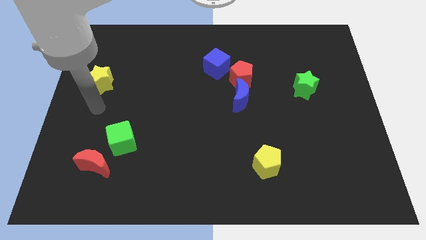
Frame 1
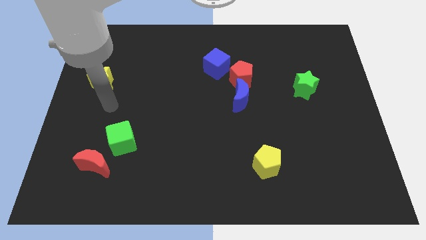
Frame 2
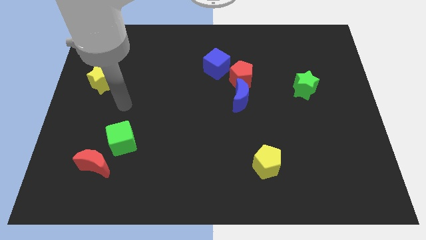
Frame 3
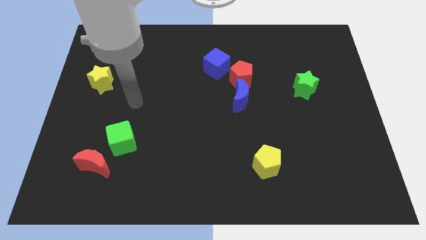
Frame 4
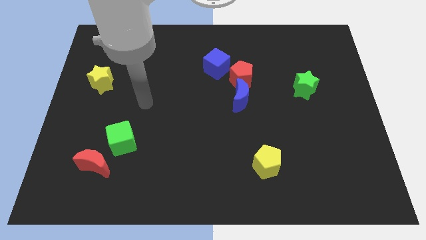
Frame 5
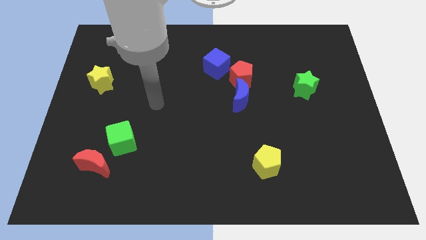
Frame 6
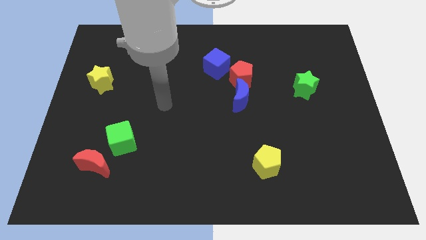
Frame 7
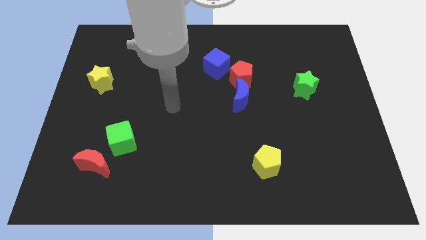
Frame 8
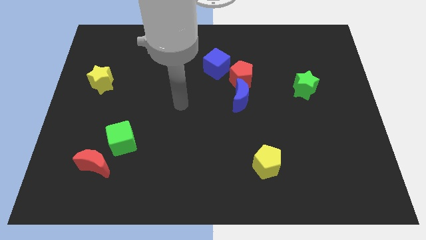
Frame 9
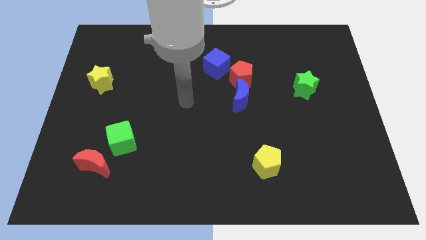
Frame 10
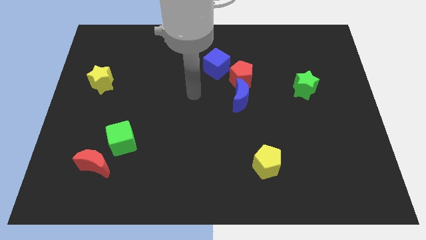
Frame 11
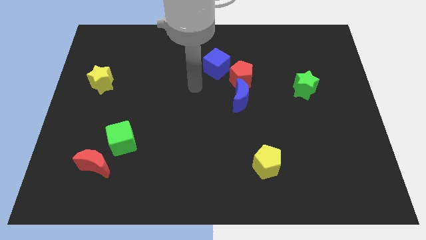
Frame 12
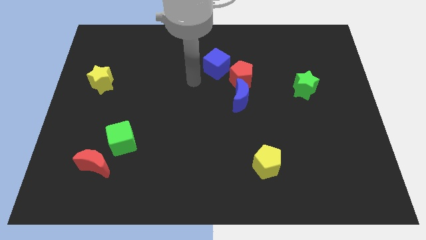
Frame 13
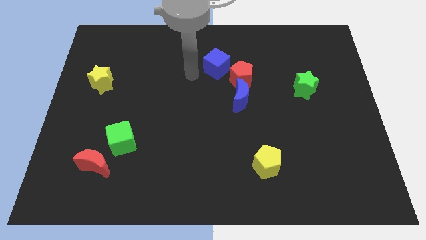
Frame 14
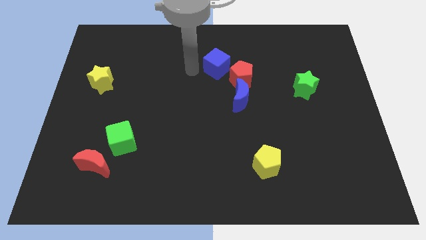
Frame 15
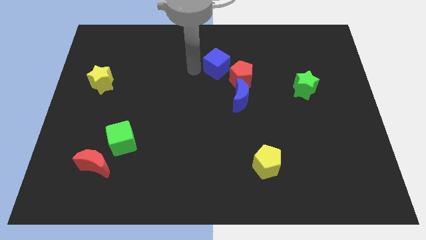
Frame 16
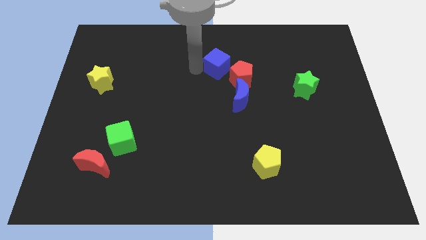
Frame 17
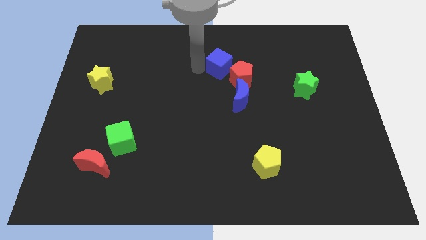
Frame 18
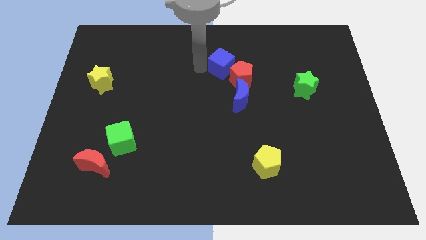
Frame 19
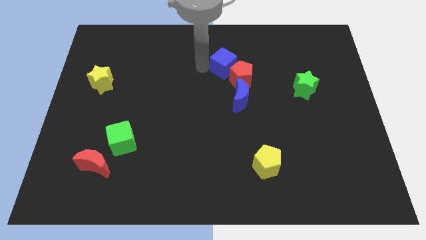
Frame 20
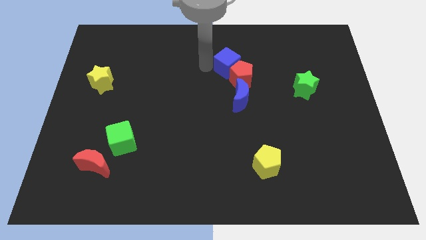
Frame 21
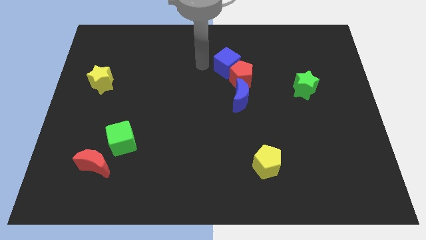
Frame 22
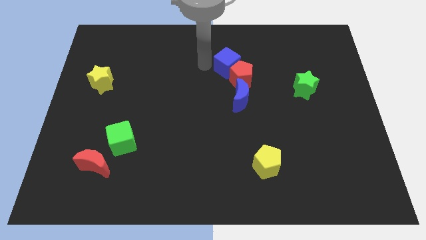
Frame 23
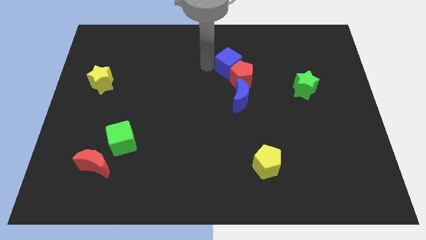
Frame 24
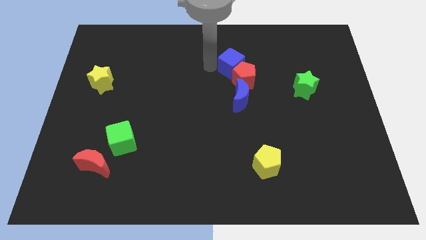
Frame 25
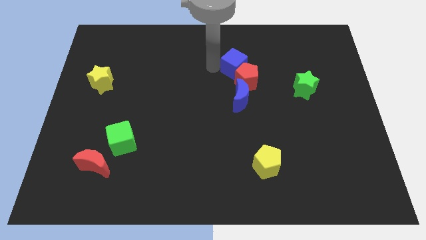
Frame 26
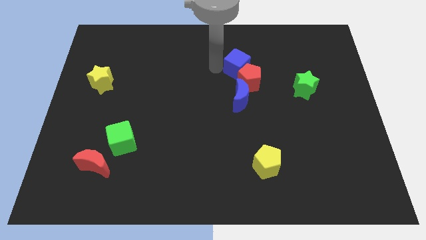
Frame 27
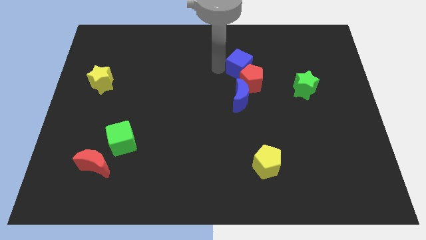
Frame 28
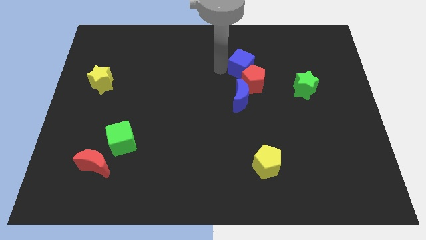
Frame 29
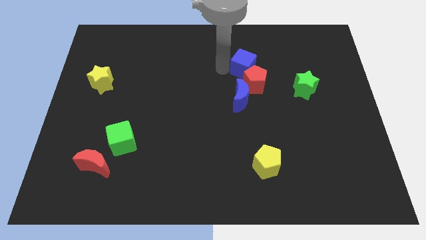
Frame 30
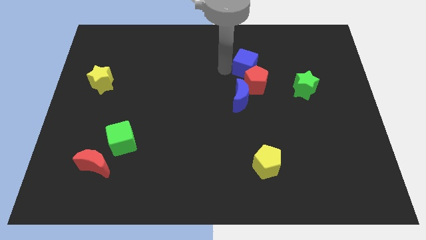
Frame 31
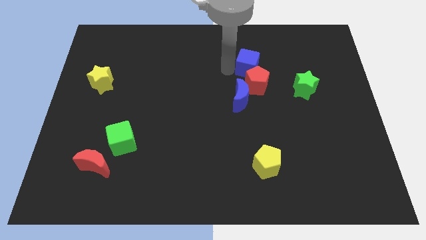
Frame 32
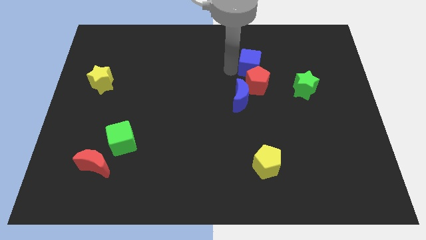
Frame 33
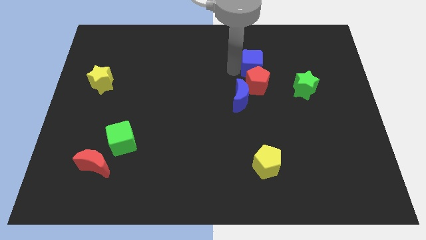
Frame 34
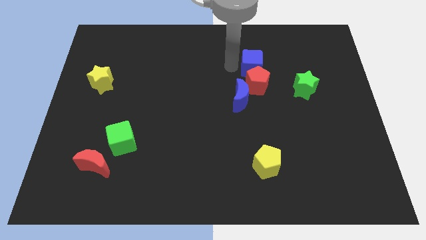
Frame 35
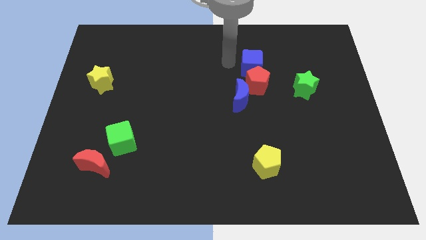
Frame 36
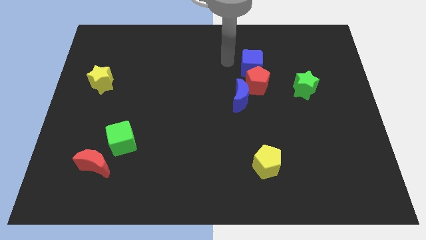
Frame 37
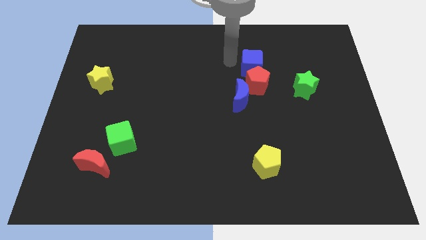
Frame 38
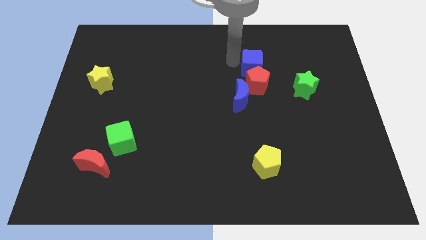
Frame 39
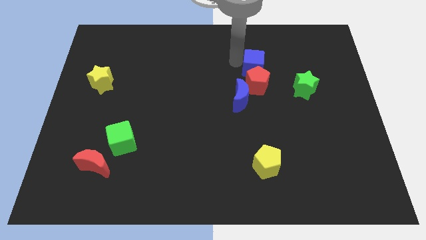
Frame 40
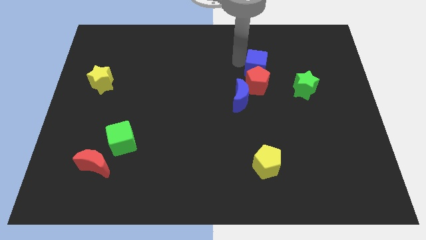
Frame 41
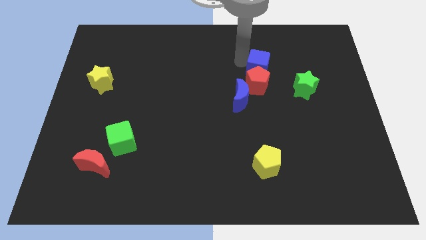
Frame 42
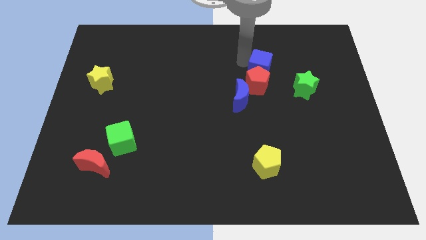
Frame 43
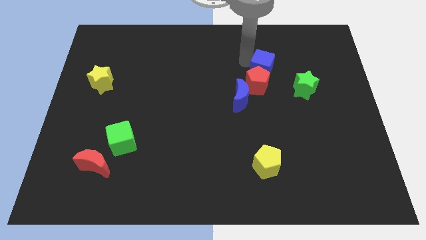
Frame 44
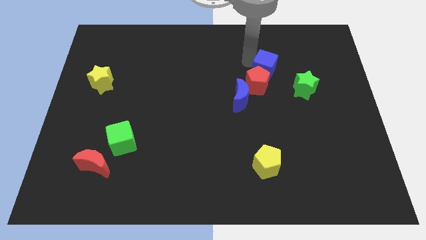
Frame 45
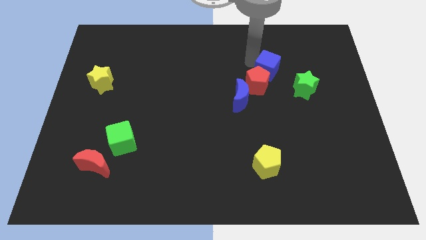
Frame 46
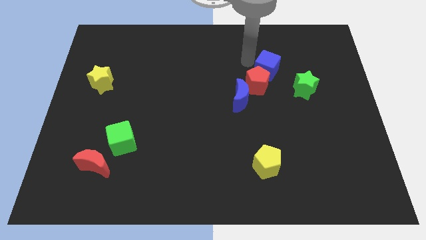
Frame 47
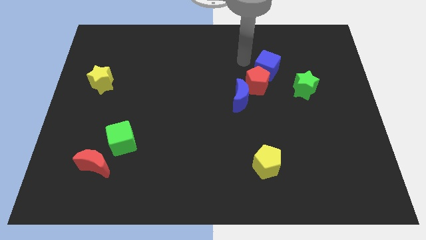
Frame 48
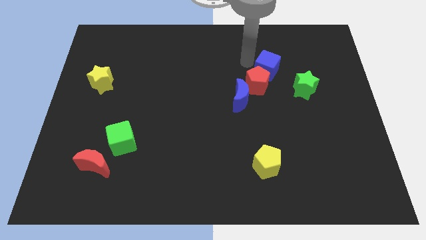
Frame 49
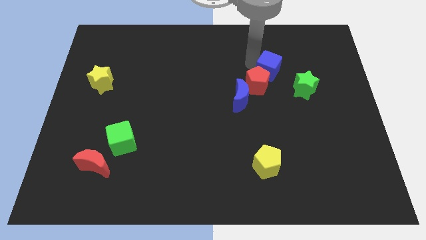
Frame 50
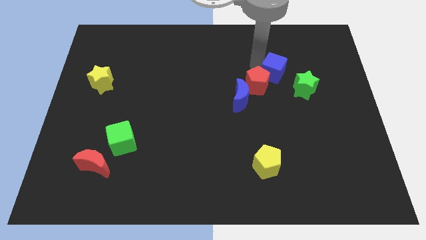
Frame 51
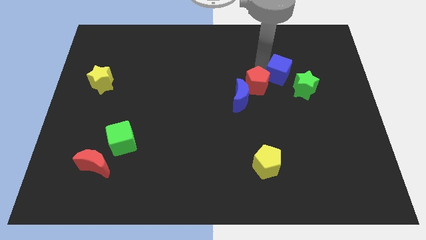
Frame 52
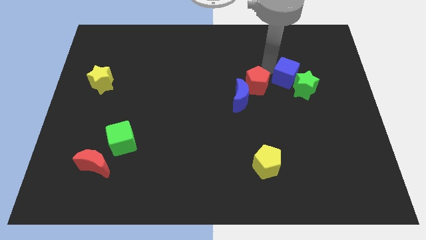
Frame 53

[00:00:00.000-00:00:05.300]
slide the blue cube to the green star

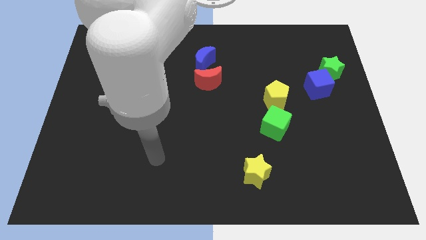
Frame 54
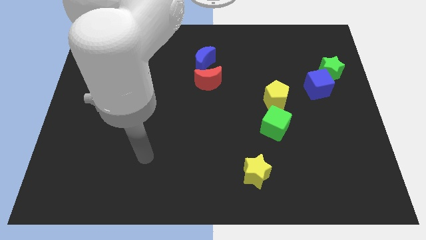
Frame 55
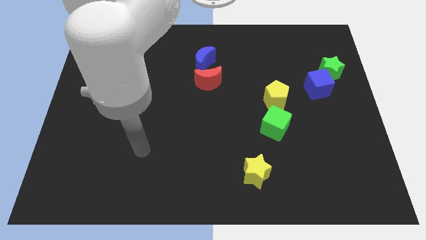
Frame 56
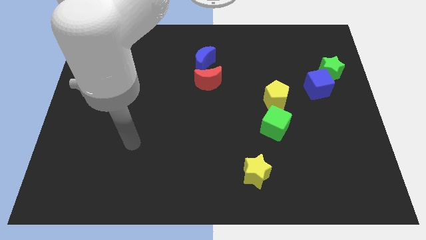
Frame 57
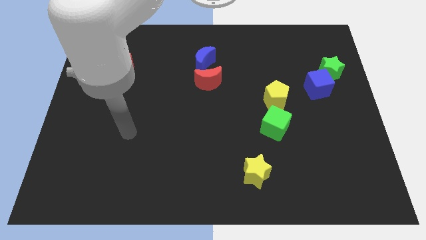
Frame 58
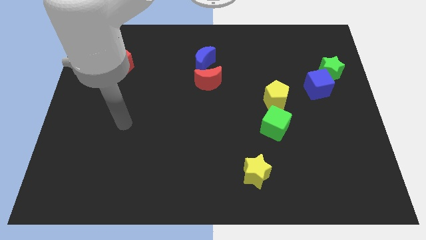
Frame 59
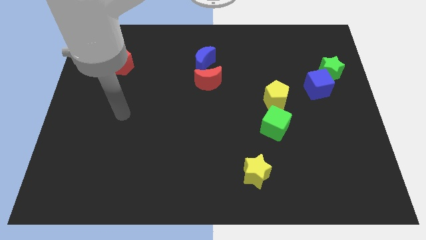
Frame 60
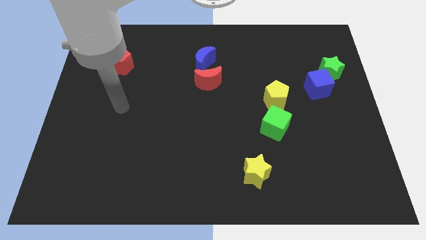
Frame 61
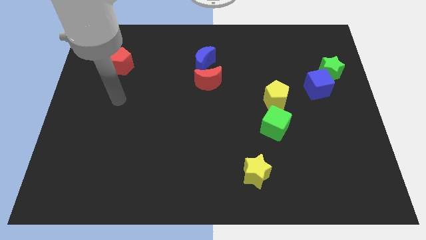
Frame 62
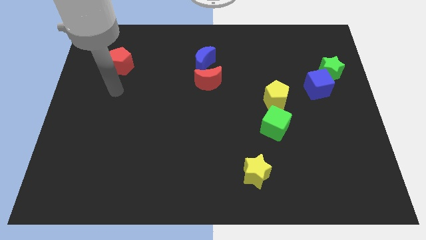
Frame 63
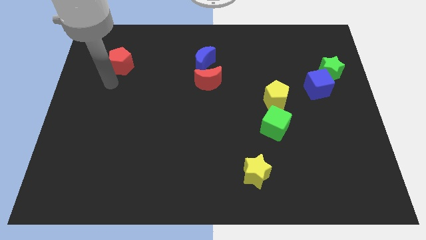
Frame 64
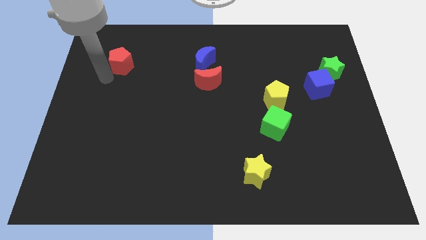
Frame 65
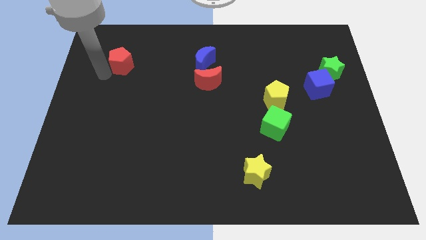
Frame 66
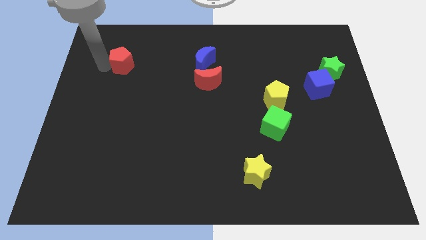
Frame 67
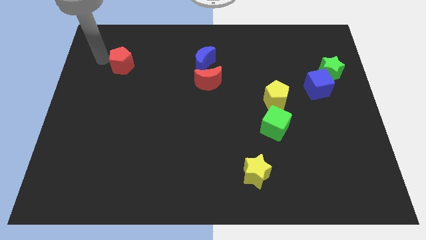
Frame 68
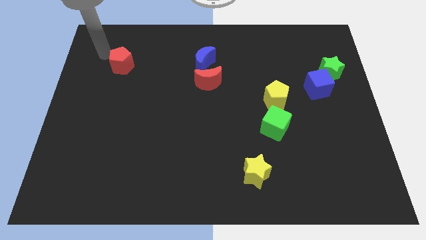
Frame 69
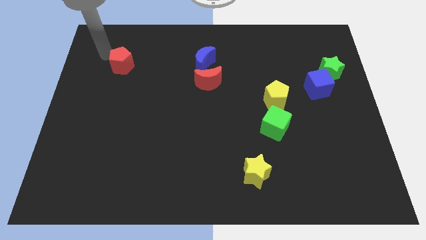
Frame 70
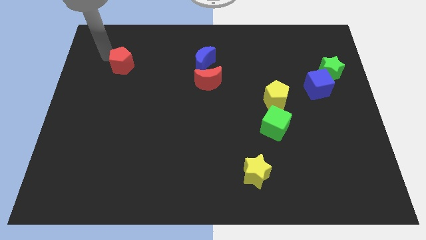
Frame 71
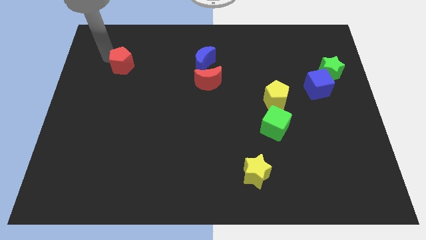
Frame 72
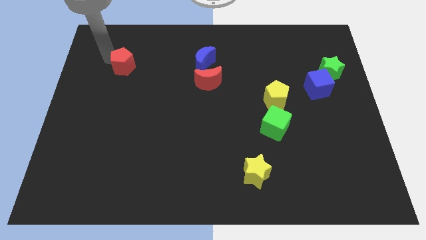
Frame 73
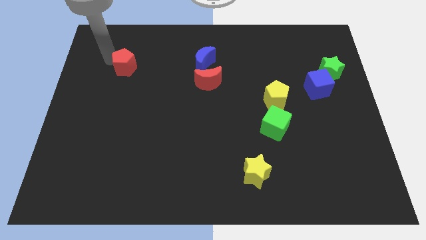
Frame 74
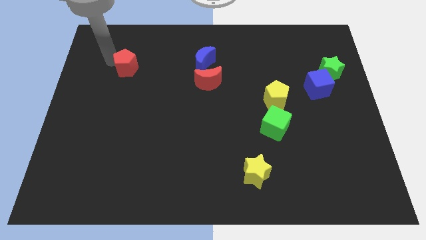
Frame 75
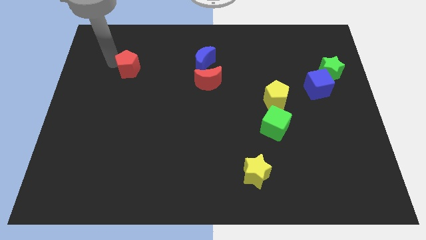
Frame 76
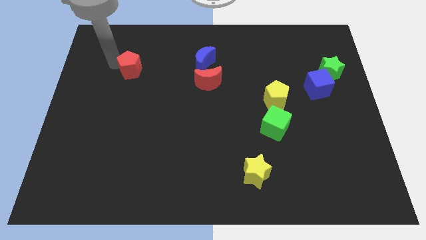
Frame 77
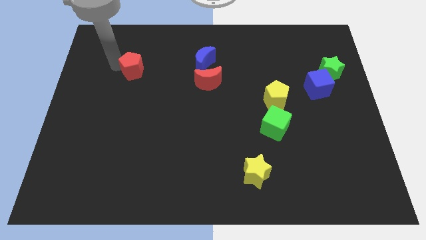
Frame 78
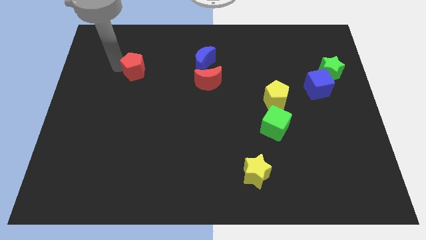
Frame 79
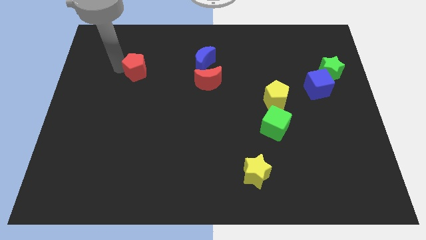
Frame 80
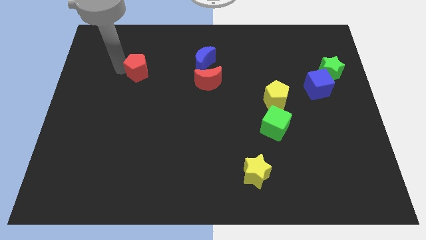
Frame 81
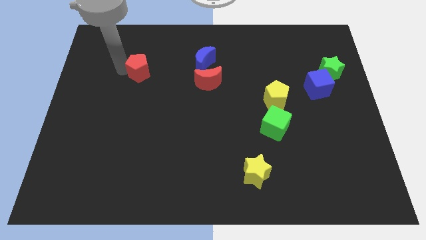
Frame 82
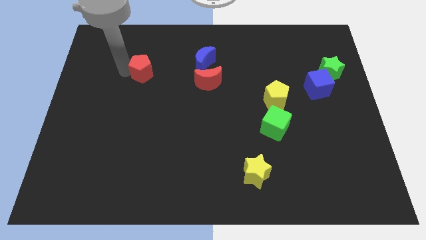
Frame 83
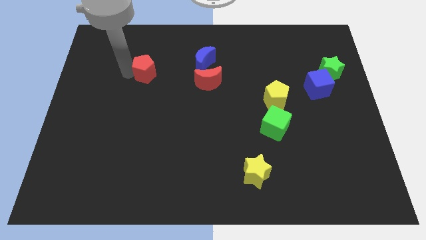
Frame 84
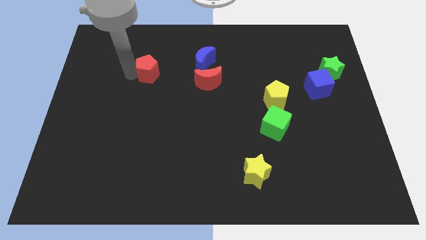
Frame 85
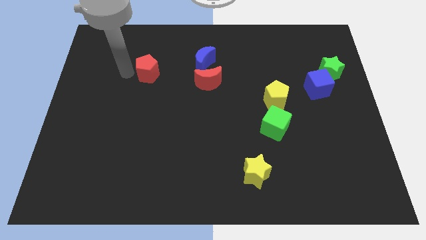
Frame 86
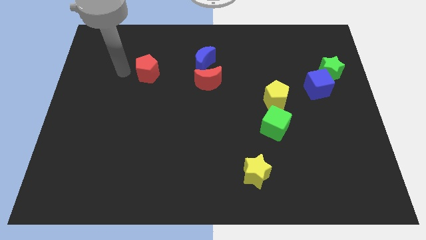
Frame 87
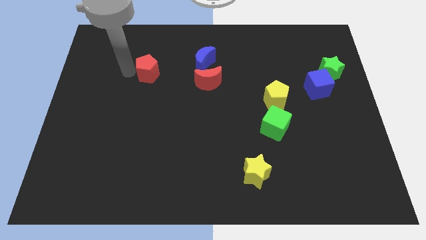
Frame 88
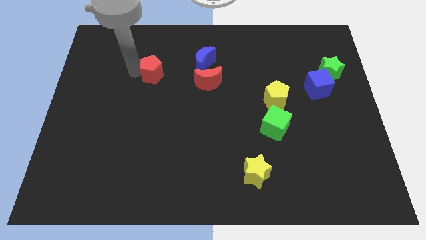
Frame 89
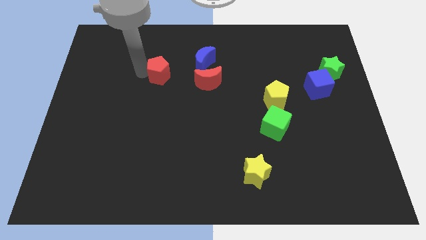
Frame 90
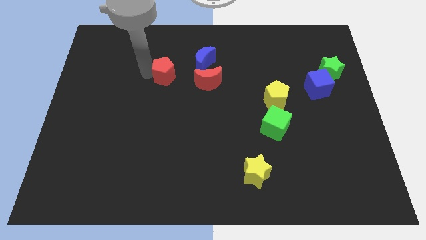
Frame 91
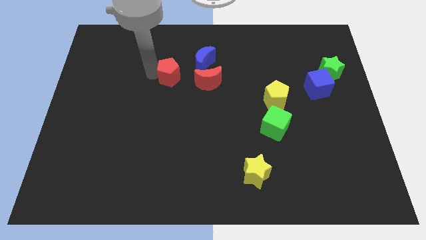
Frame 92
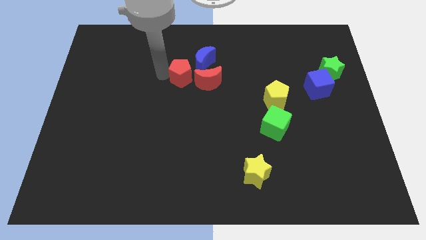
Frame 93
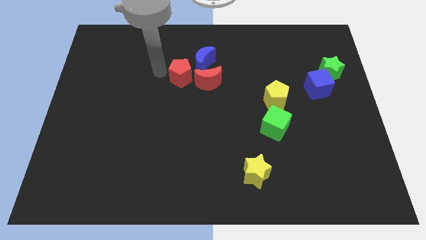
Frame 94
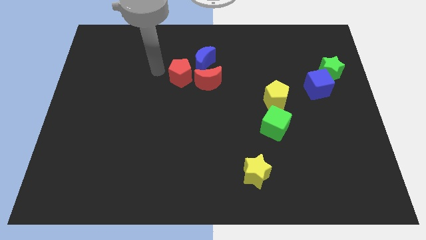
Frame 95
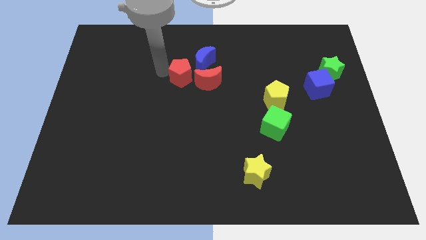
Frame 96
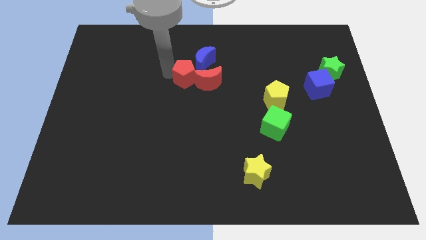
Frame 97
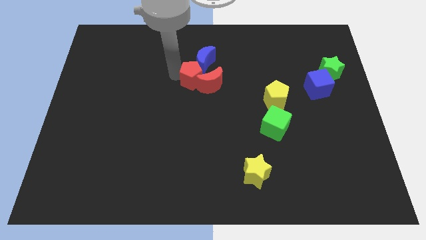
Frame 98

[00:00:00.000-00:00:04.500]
push the red pentagon to the red moon
